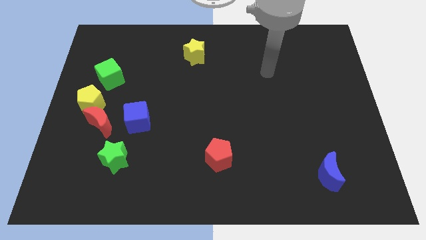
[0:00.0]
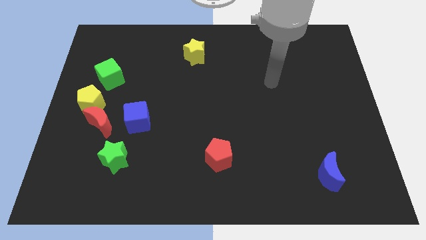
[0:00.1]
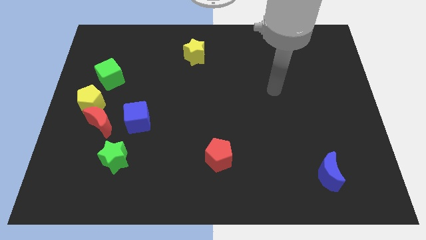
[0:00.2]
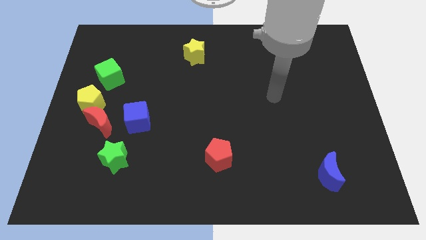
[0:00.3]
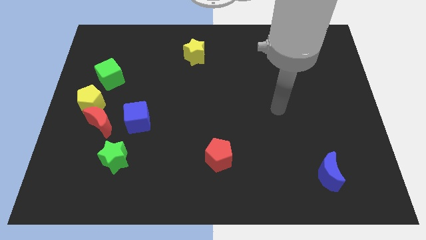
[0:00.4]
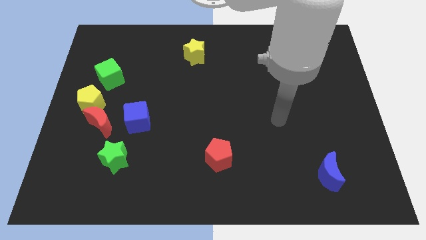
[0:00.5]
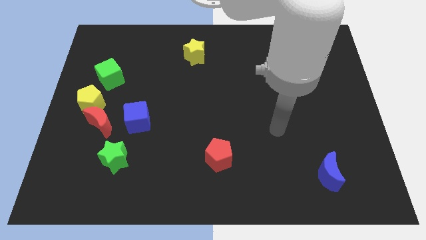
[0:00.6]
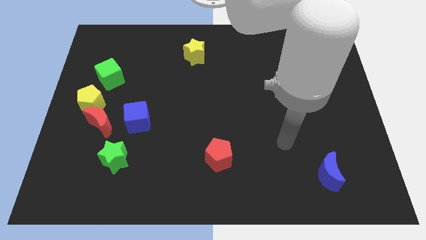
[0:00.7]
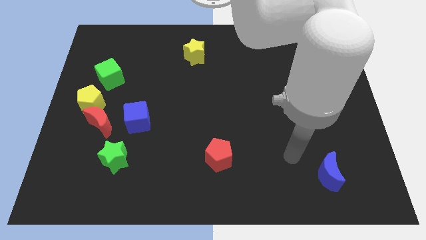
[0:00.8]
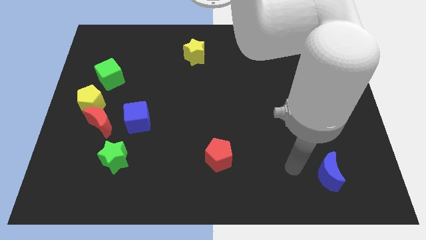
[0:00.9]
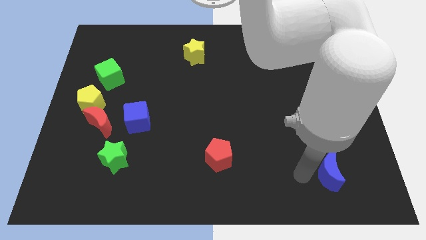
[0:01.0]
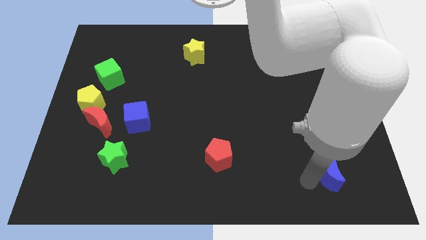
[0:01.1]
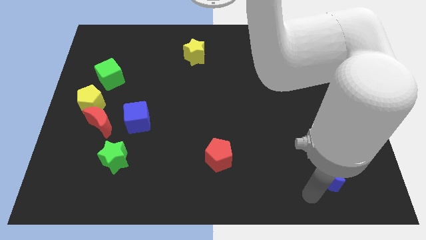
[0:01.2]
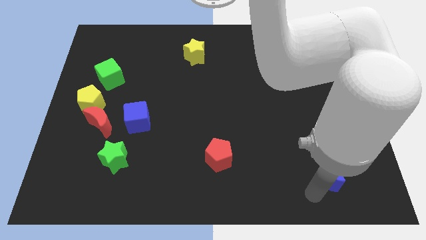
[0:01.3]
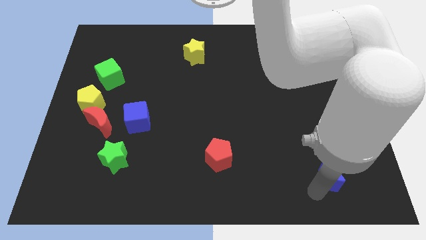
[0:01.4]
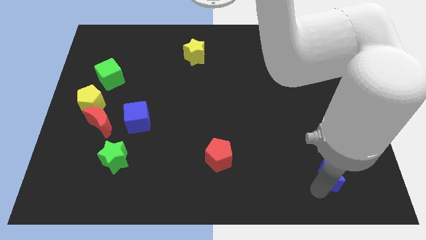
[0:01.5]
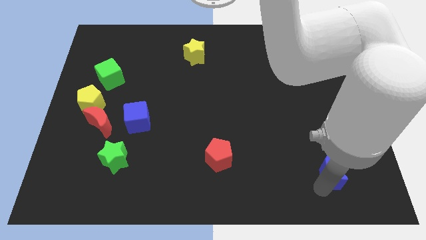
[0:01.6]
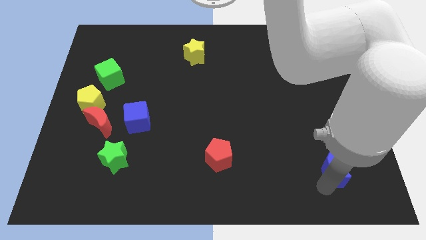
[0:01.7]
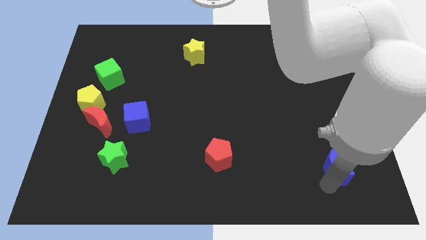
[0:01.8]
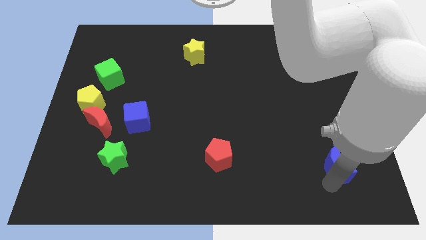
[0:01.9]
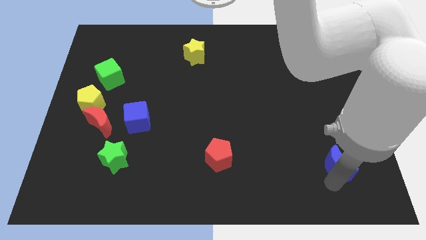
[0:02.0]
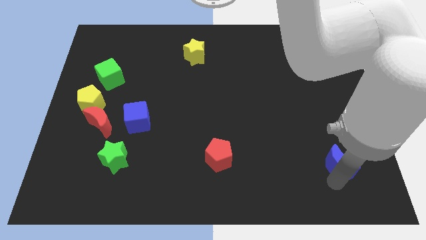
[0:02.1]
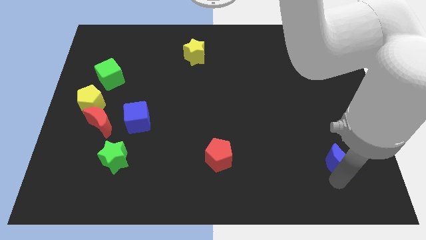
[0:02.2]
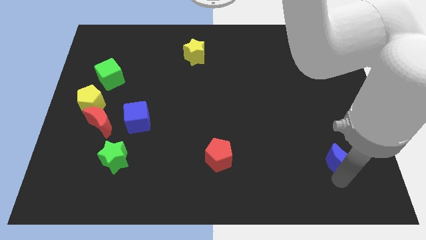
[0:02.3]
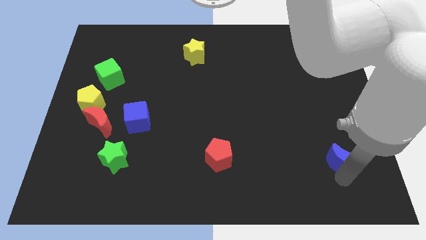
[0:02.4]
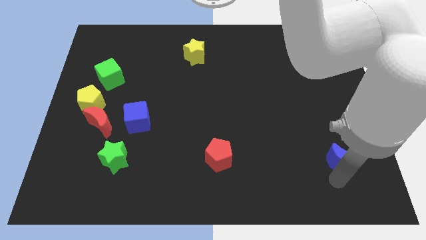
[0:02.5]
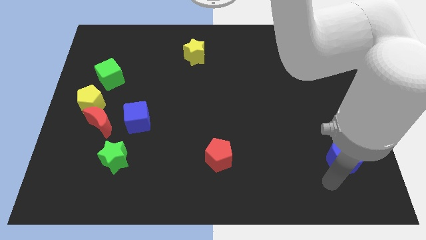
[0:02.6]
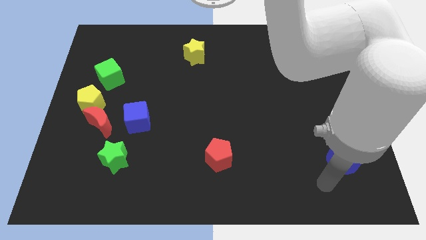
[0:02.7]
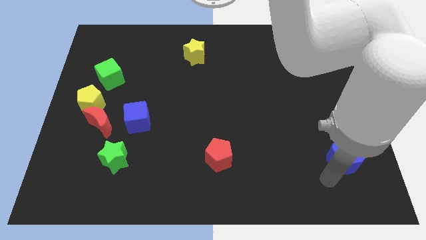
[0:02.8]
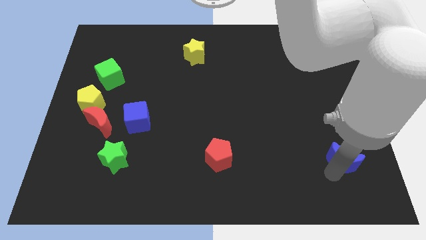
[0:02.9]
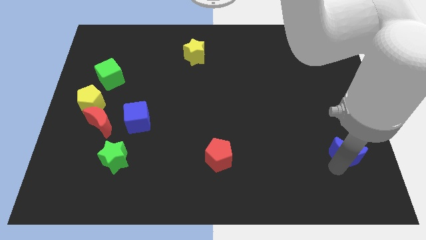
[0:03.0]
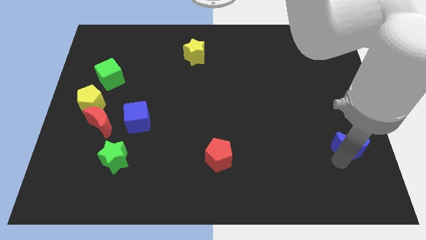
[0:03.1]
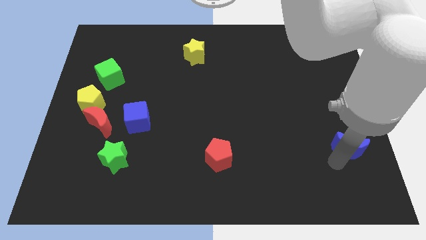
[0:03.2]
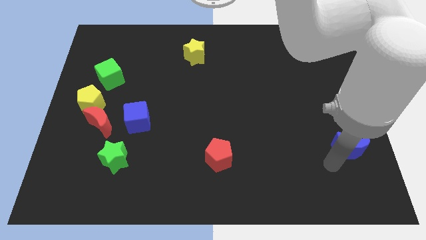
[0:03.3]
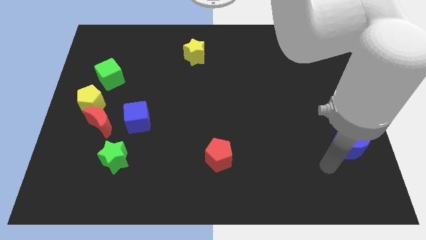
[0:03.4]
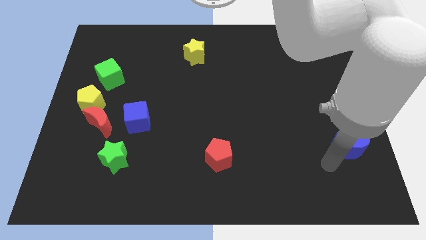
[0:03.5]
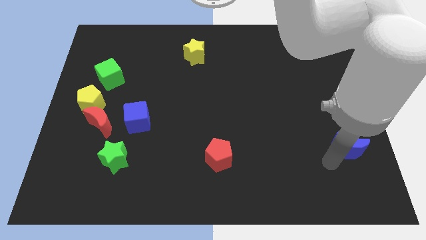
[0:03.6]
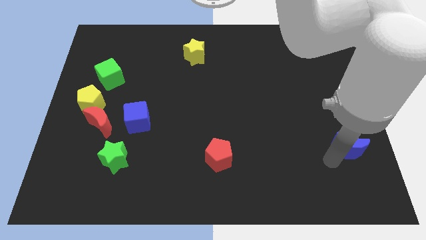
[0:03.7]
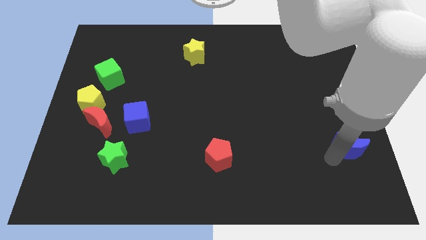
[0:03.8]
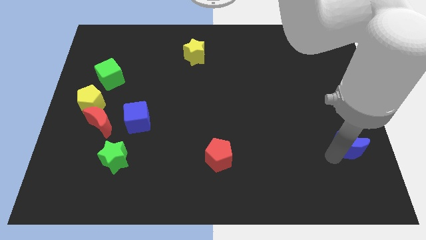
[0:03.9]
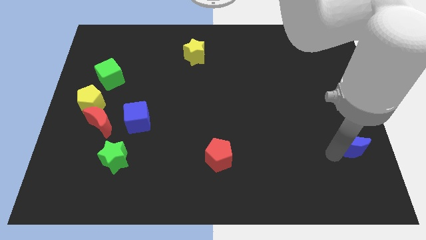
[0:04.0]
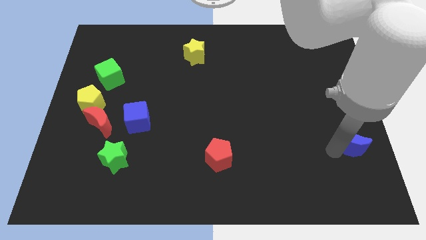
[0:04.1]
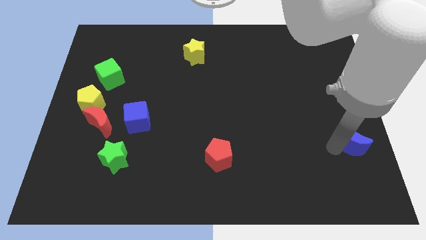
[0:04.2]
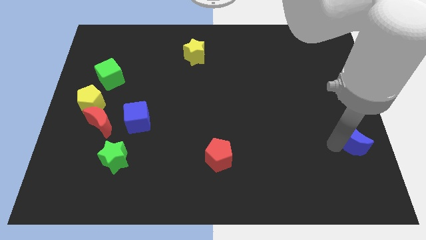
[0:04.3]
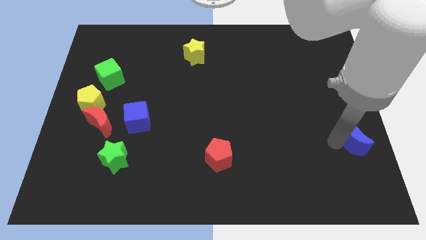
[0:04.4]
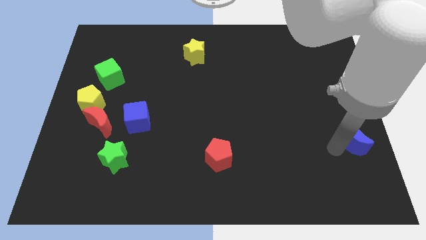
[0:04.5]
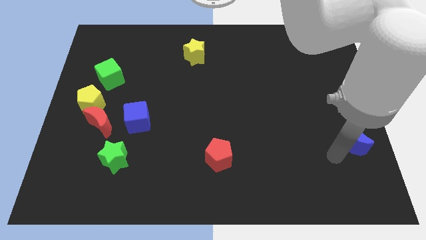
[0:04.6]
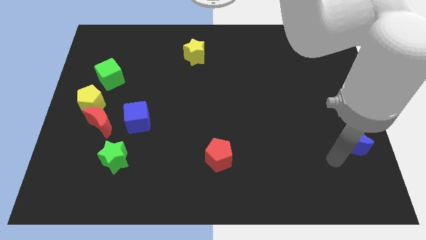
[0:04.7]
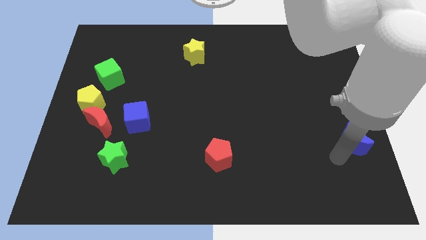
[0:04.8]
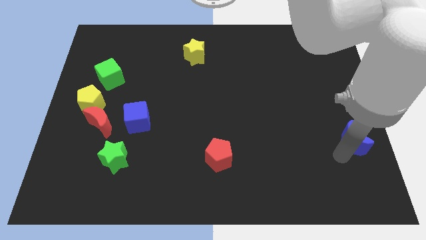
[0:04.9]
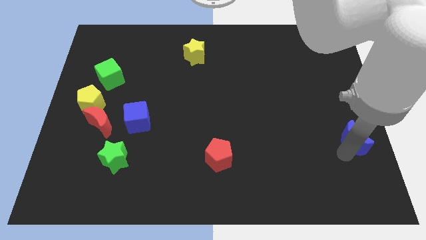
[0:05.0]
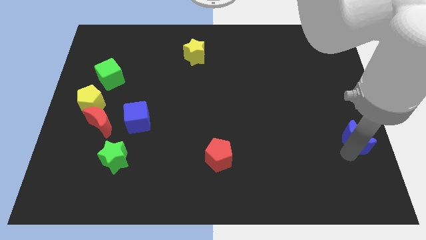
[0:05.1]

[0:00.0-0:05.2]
slide the blue moon to the right side

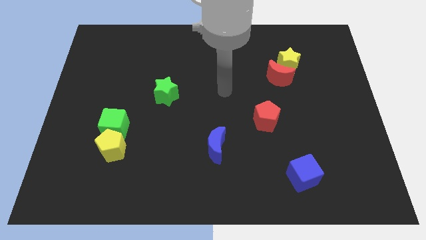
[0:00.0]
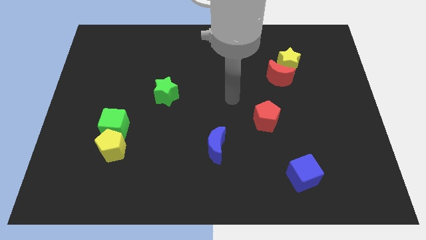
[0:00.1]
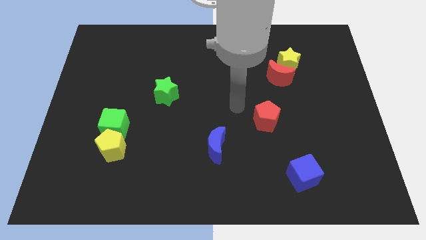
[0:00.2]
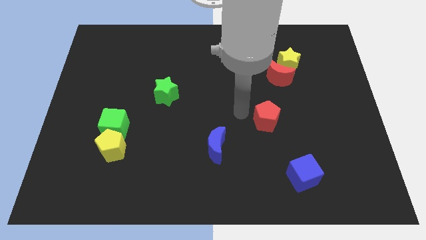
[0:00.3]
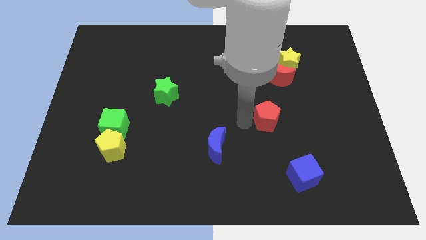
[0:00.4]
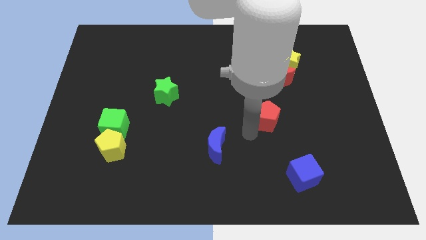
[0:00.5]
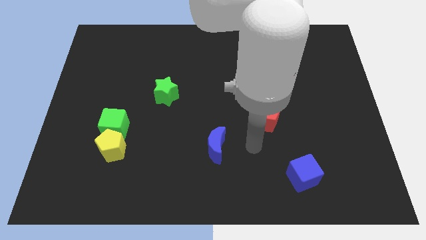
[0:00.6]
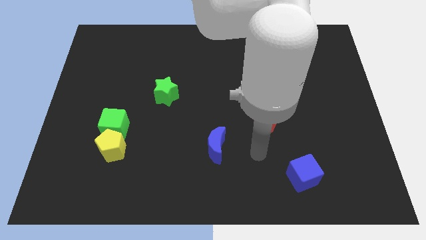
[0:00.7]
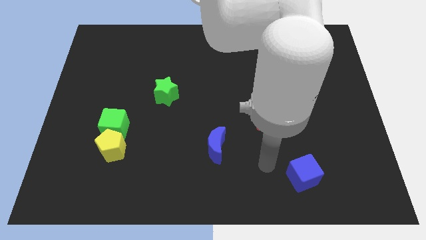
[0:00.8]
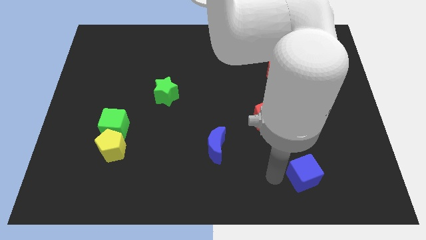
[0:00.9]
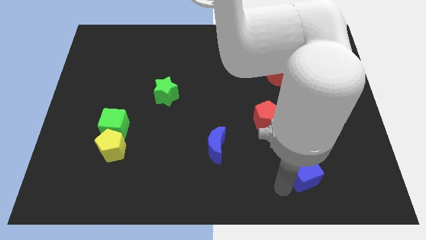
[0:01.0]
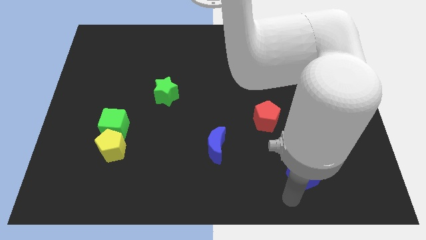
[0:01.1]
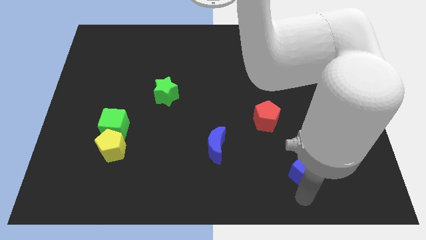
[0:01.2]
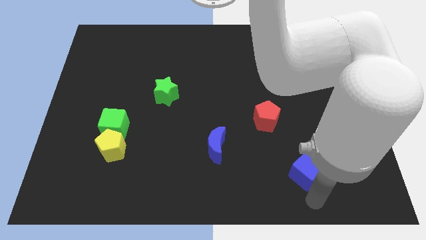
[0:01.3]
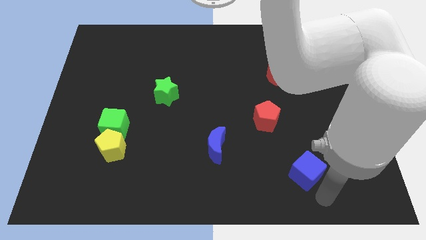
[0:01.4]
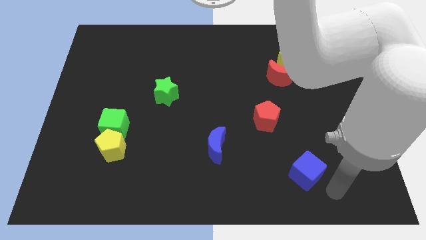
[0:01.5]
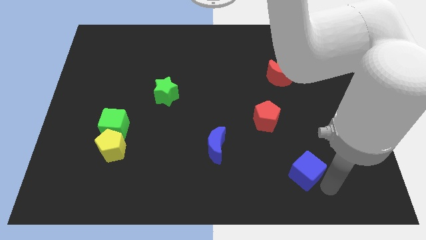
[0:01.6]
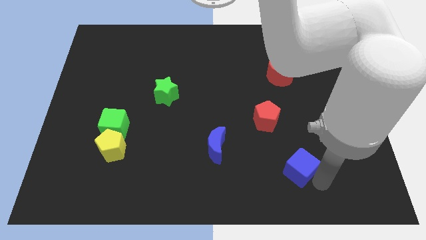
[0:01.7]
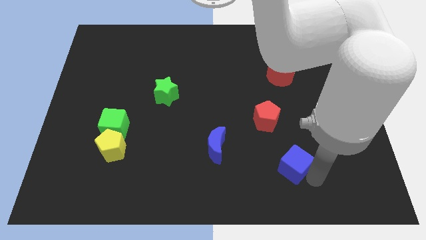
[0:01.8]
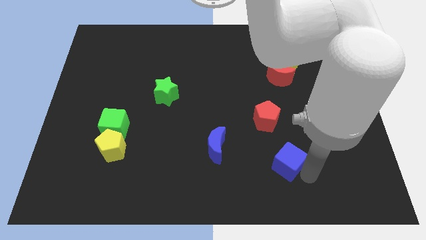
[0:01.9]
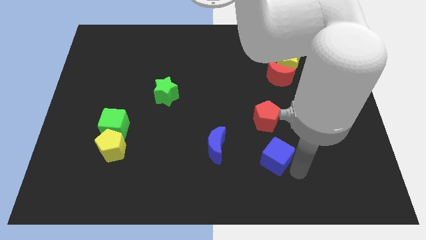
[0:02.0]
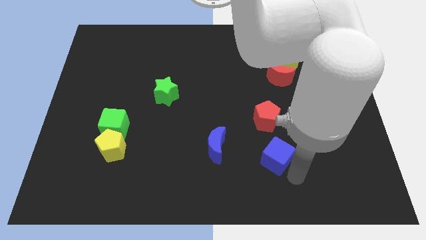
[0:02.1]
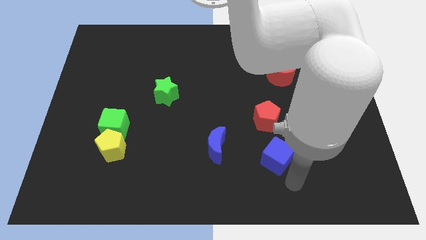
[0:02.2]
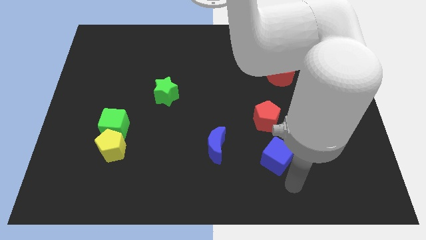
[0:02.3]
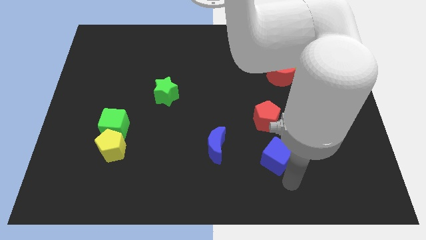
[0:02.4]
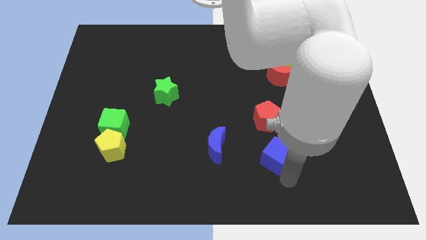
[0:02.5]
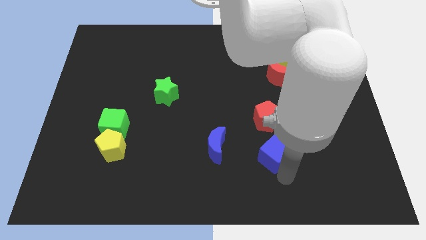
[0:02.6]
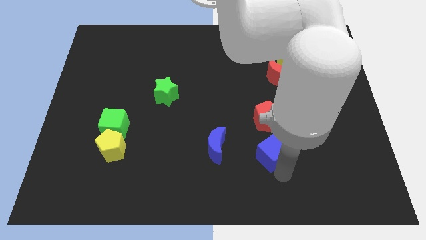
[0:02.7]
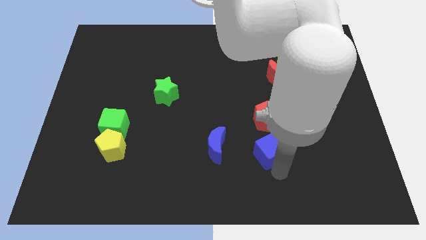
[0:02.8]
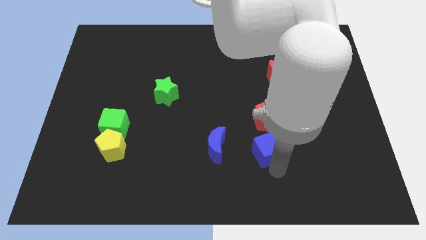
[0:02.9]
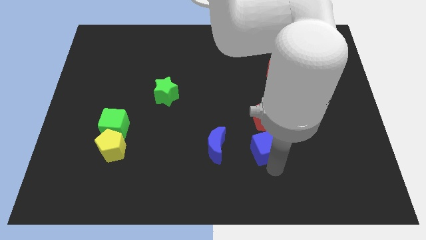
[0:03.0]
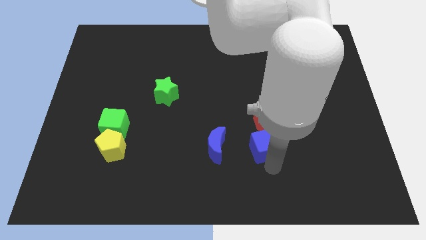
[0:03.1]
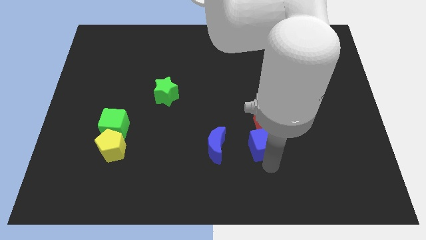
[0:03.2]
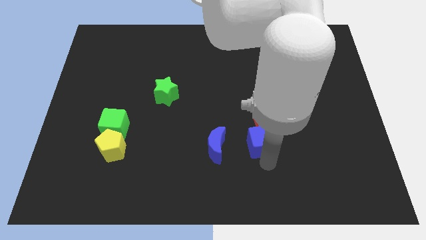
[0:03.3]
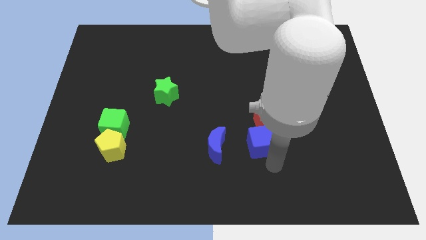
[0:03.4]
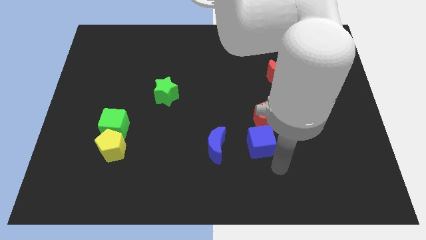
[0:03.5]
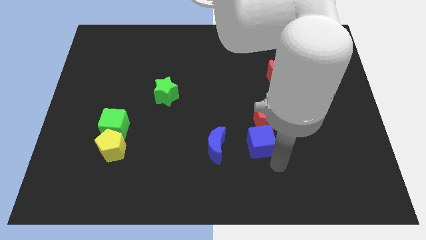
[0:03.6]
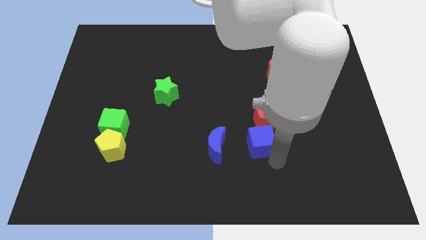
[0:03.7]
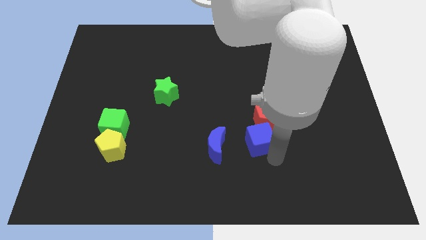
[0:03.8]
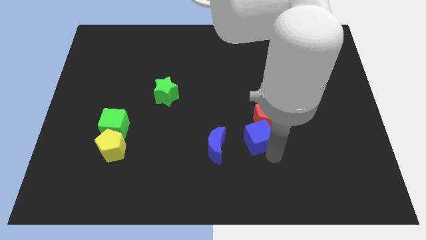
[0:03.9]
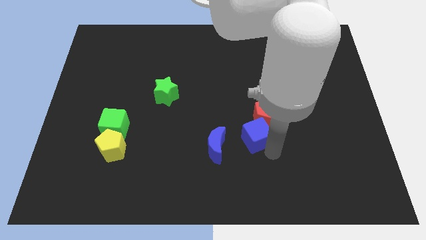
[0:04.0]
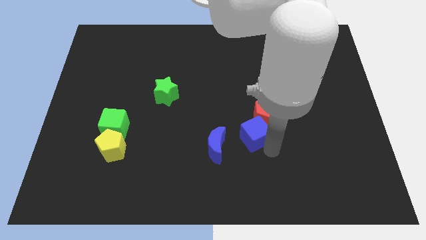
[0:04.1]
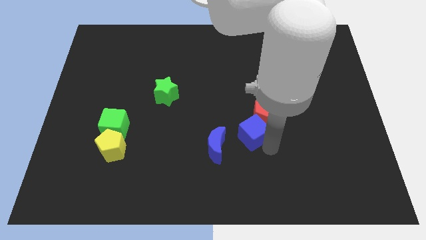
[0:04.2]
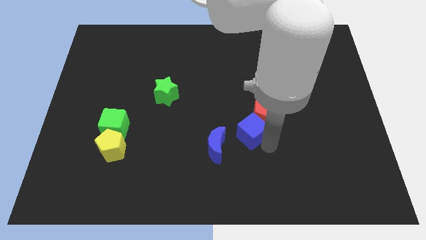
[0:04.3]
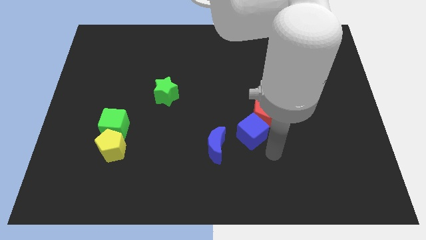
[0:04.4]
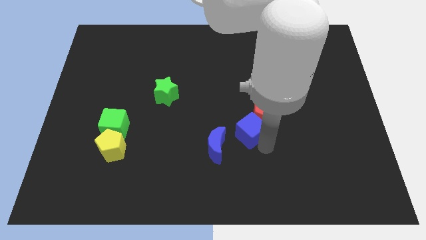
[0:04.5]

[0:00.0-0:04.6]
put the blue cube to the center of the board
